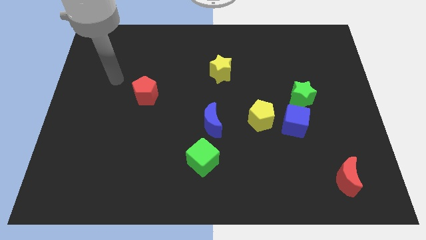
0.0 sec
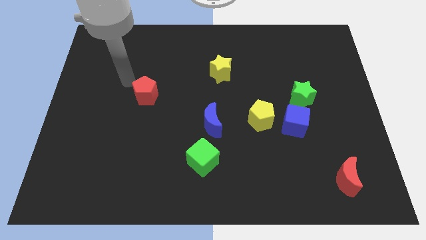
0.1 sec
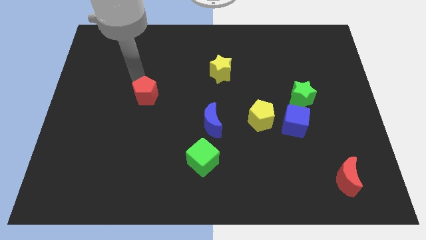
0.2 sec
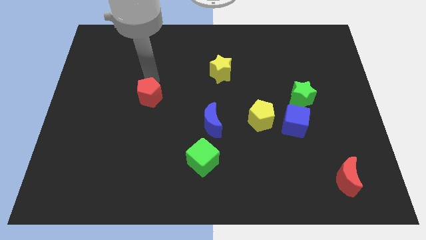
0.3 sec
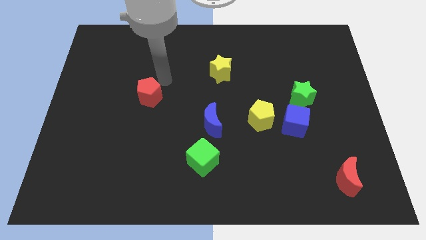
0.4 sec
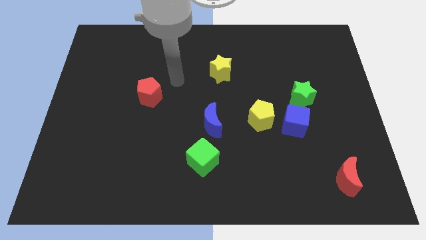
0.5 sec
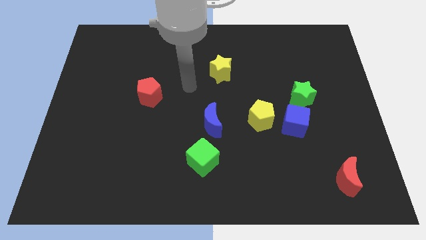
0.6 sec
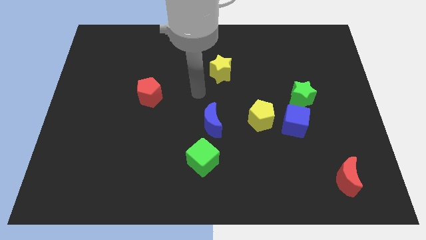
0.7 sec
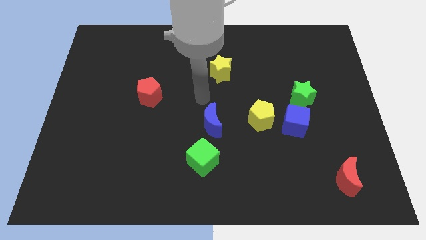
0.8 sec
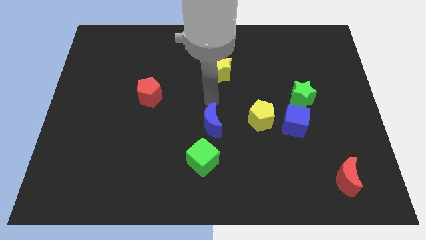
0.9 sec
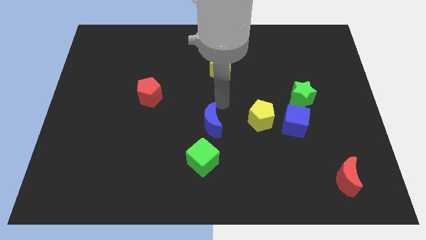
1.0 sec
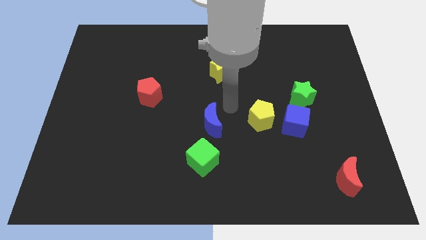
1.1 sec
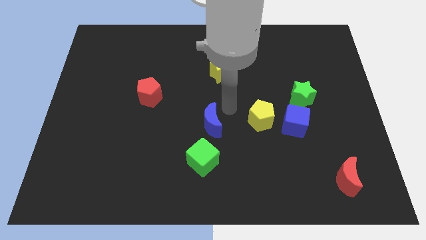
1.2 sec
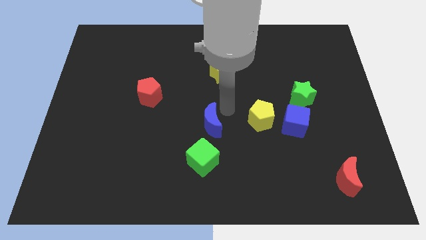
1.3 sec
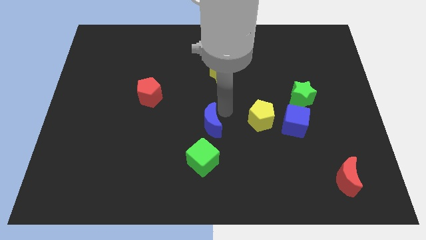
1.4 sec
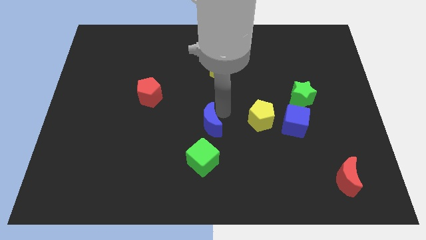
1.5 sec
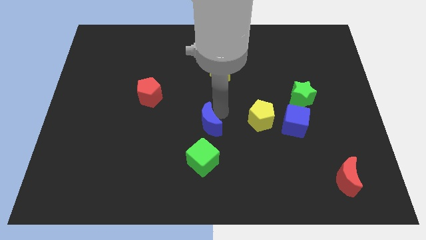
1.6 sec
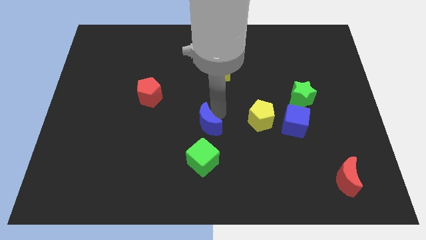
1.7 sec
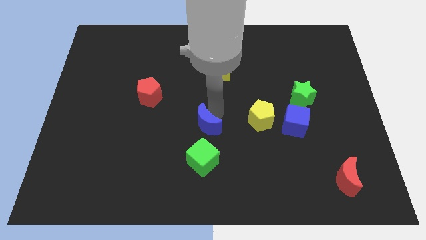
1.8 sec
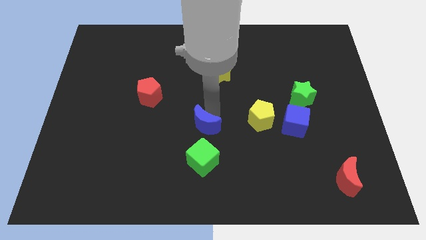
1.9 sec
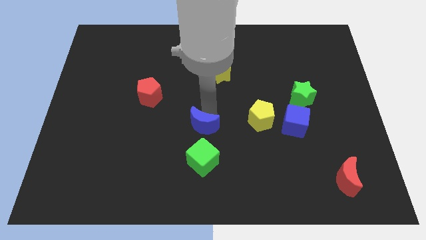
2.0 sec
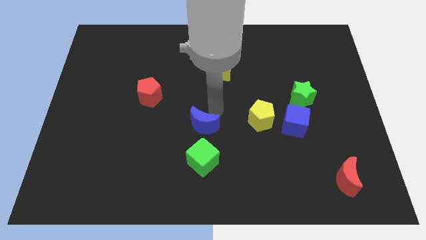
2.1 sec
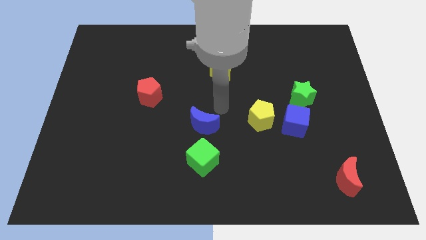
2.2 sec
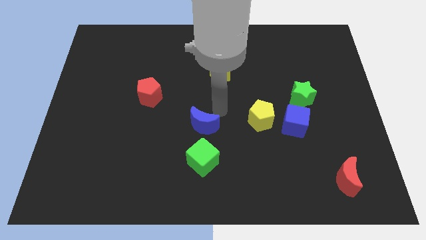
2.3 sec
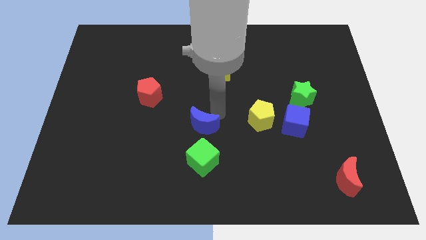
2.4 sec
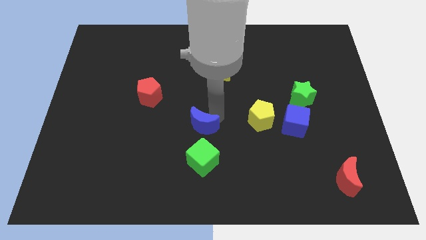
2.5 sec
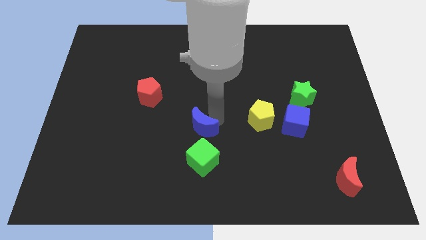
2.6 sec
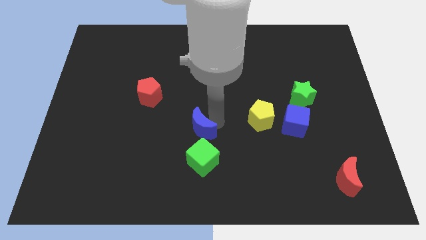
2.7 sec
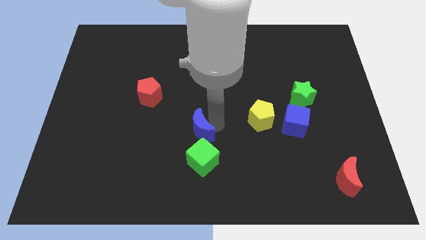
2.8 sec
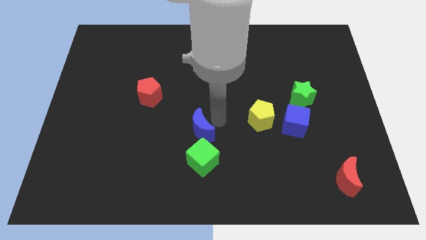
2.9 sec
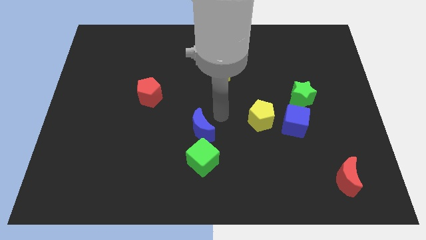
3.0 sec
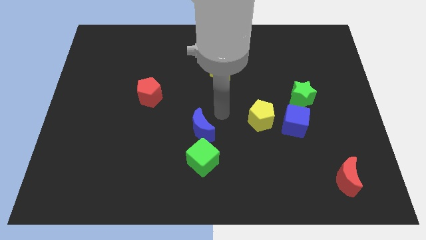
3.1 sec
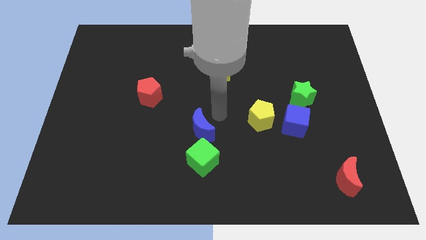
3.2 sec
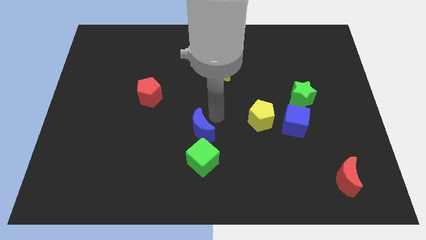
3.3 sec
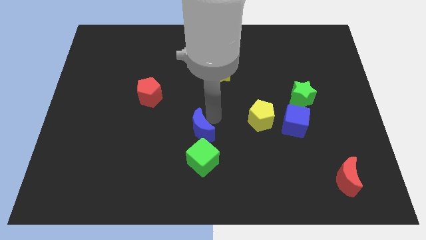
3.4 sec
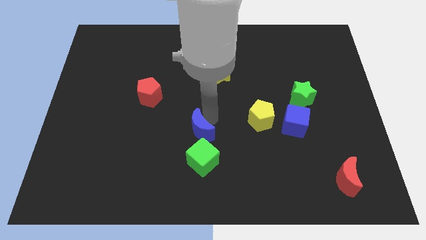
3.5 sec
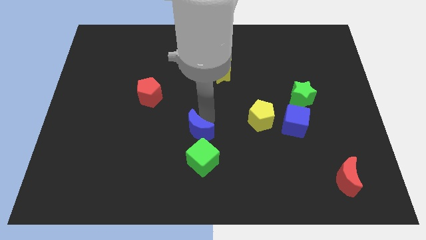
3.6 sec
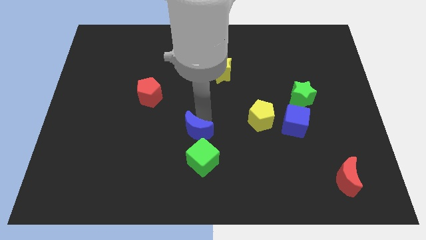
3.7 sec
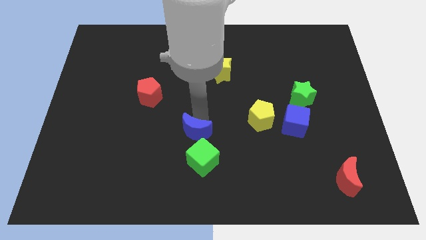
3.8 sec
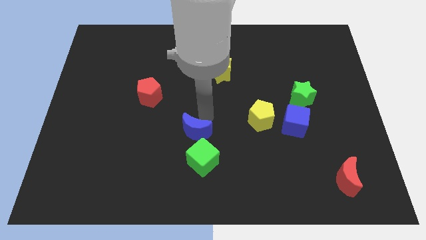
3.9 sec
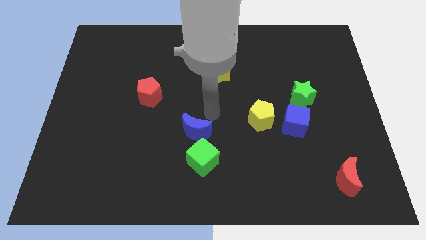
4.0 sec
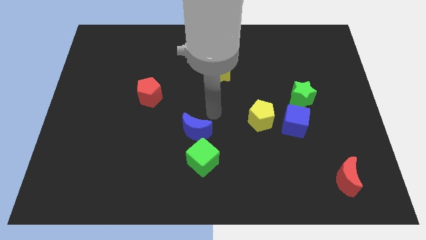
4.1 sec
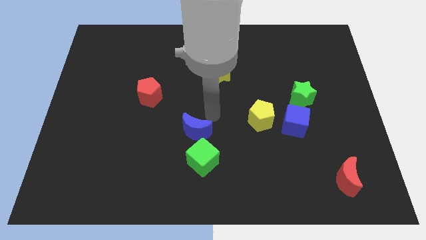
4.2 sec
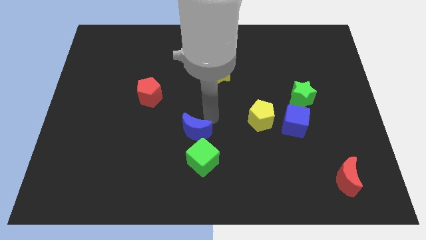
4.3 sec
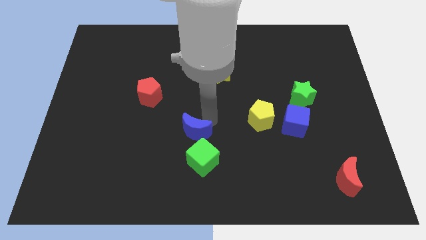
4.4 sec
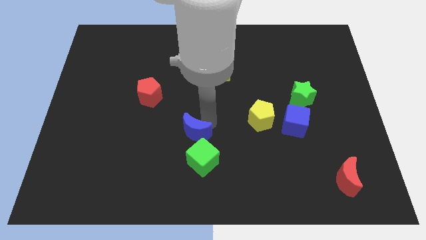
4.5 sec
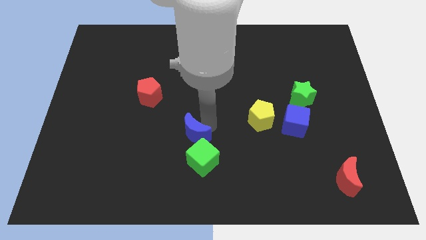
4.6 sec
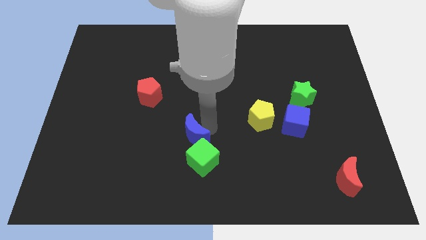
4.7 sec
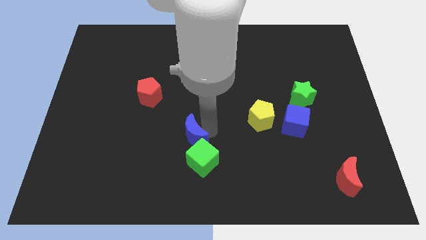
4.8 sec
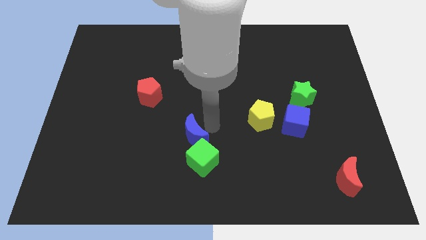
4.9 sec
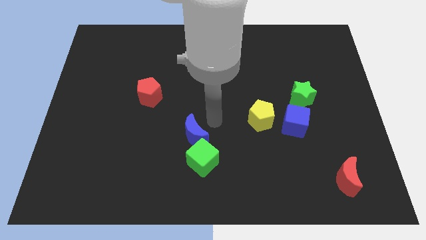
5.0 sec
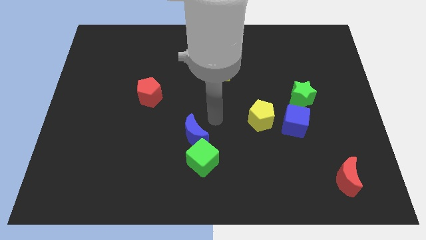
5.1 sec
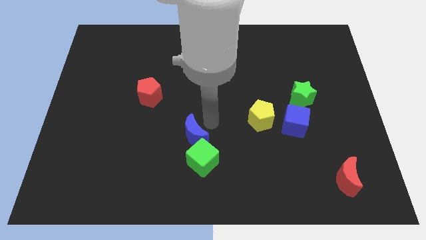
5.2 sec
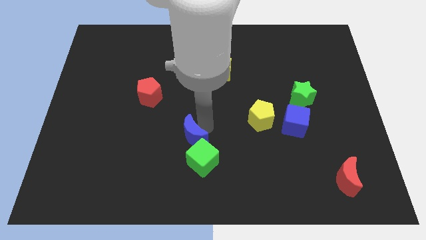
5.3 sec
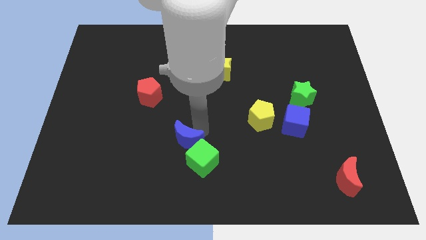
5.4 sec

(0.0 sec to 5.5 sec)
slide the blue moon down and left slightly

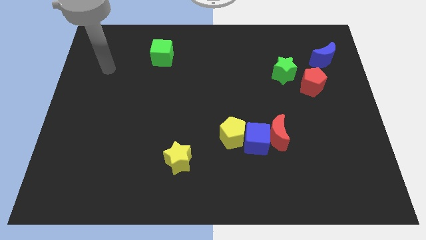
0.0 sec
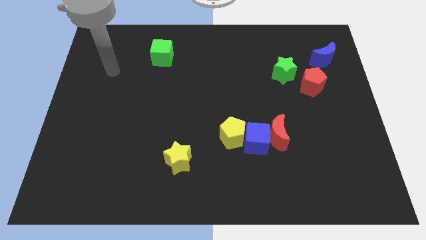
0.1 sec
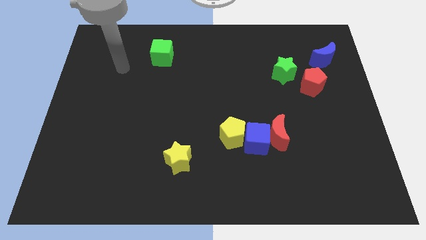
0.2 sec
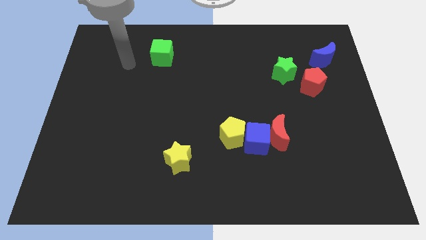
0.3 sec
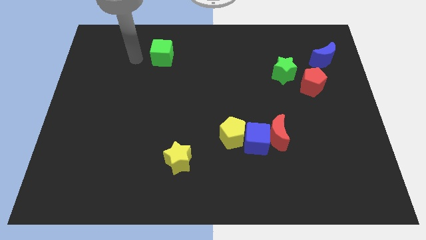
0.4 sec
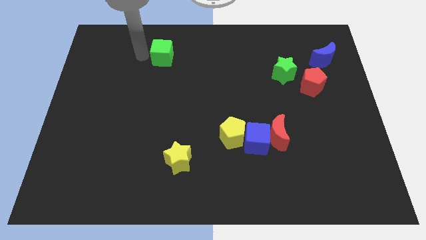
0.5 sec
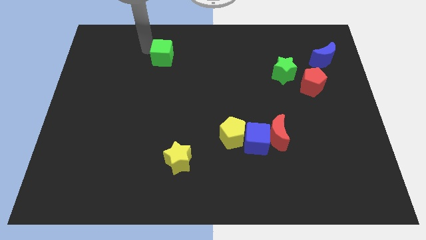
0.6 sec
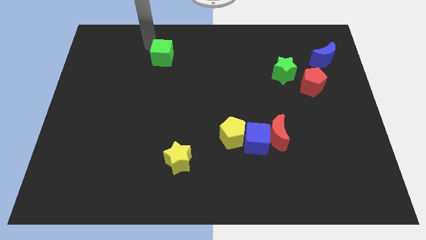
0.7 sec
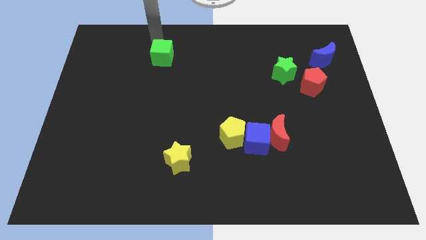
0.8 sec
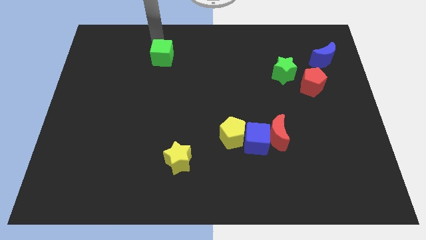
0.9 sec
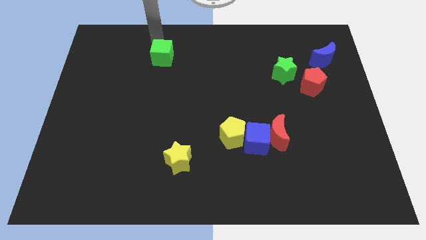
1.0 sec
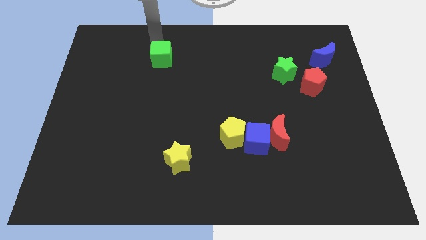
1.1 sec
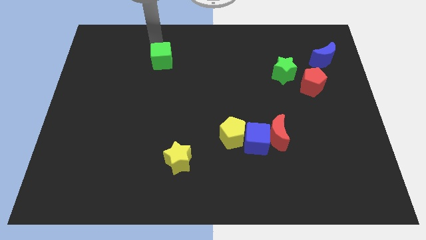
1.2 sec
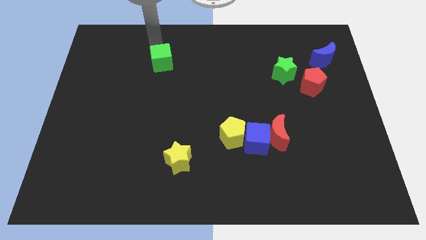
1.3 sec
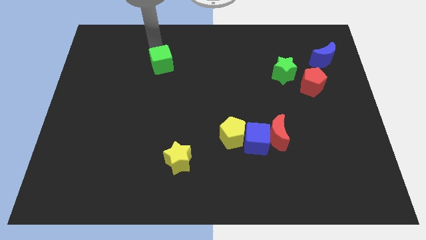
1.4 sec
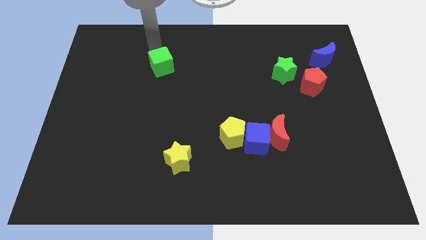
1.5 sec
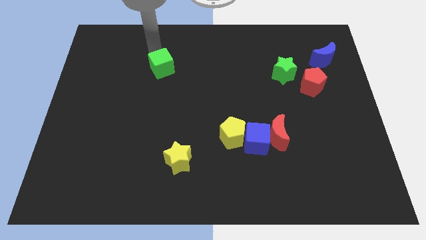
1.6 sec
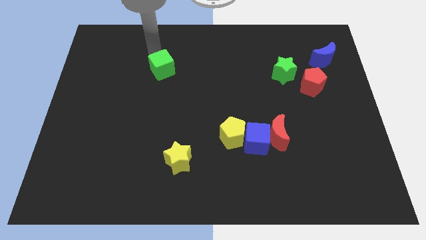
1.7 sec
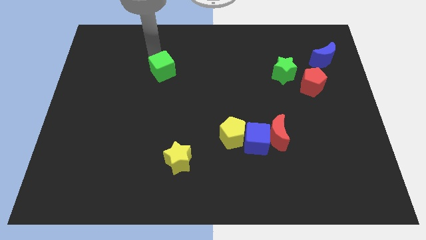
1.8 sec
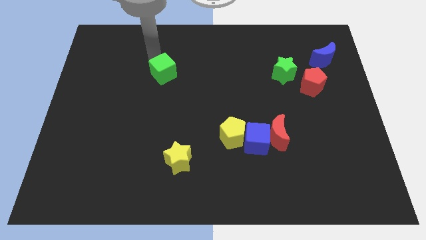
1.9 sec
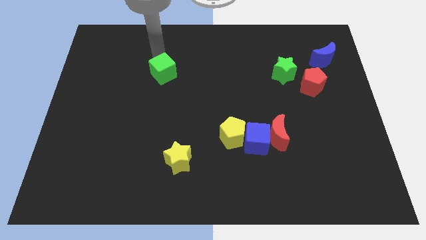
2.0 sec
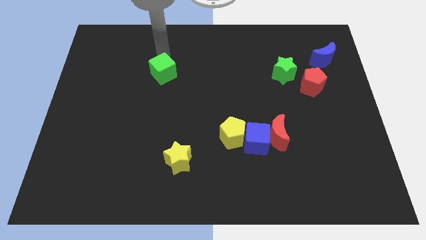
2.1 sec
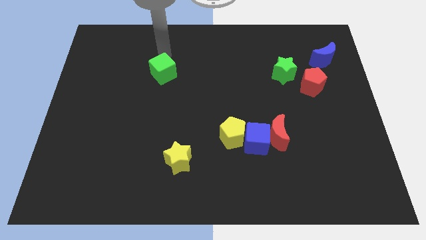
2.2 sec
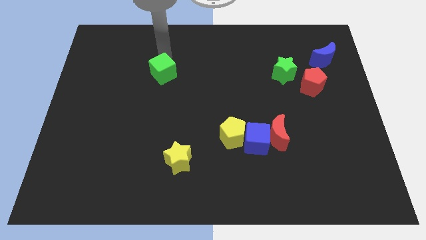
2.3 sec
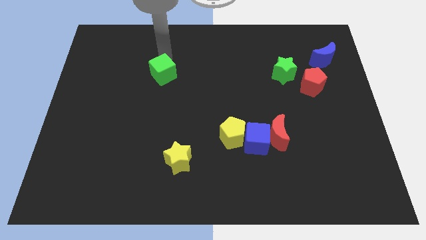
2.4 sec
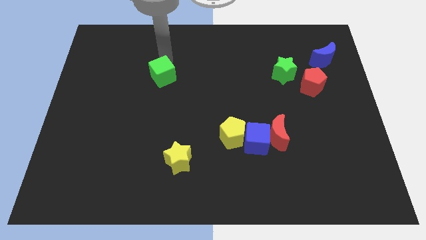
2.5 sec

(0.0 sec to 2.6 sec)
push the green cube downwards somewhat
